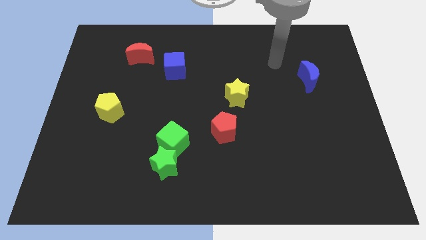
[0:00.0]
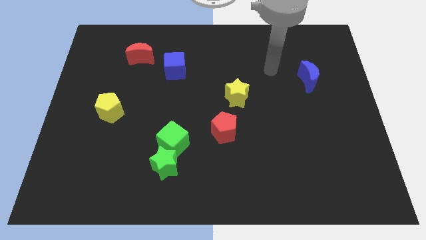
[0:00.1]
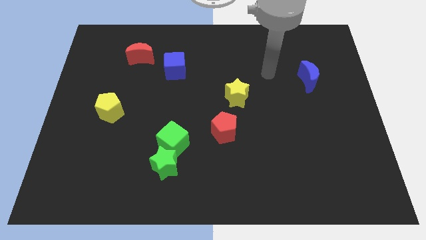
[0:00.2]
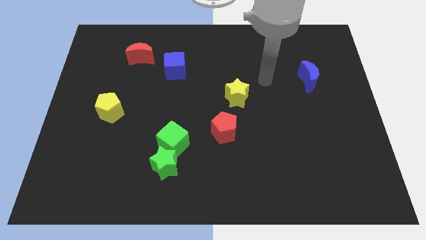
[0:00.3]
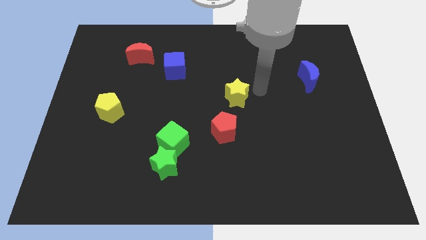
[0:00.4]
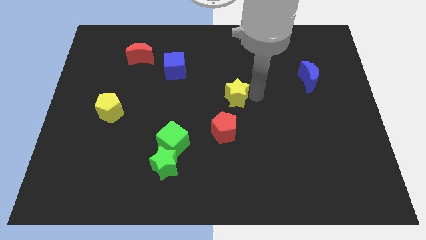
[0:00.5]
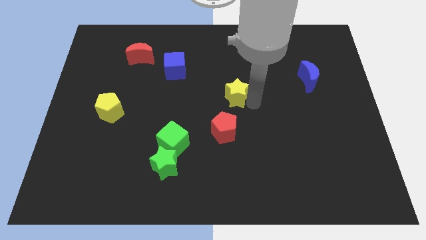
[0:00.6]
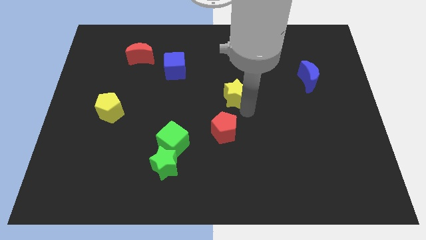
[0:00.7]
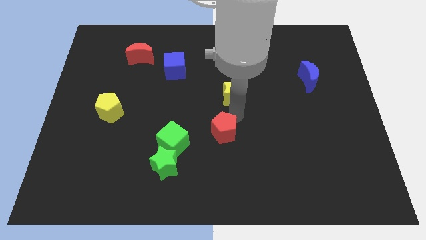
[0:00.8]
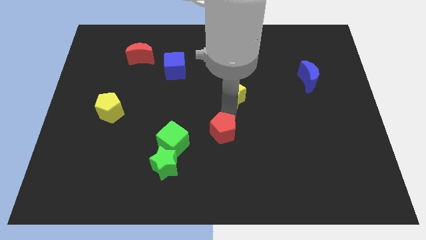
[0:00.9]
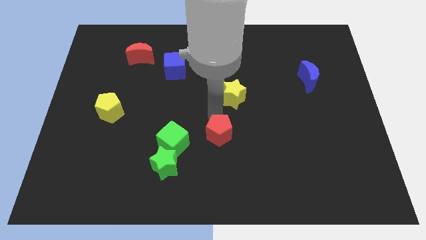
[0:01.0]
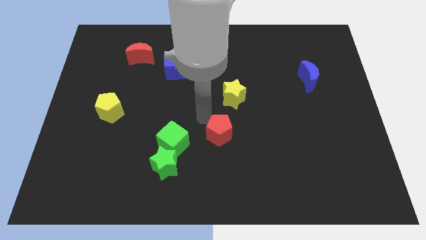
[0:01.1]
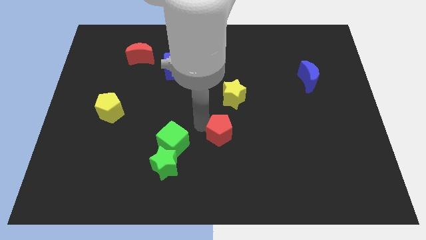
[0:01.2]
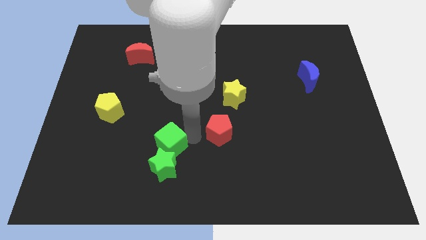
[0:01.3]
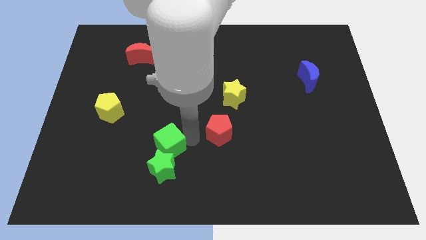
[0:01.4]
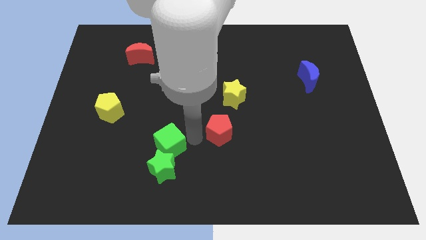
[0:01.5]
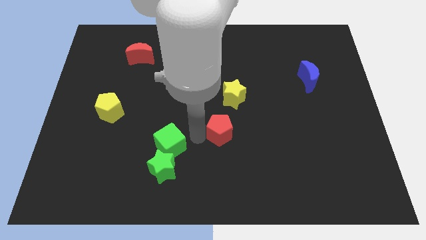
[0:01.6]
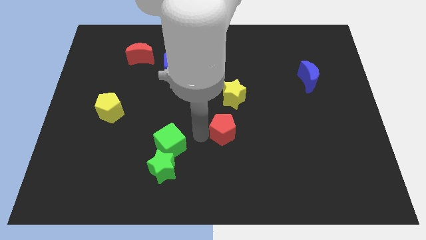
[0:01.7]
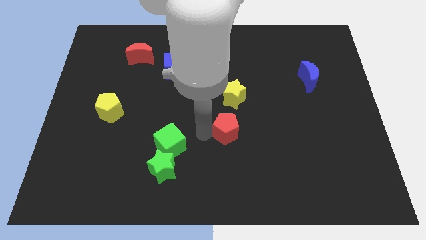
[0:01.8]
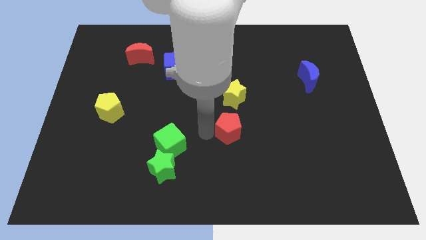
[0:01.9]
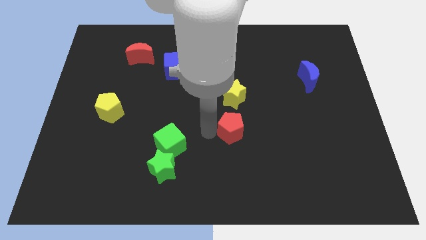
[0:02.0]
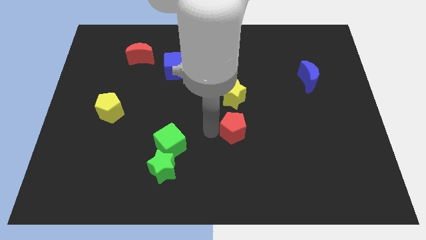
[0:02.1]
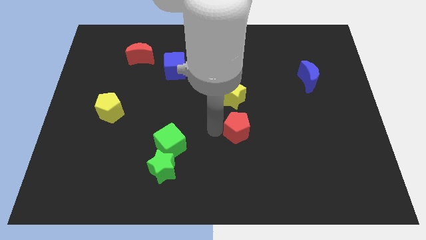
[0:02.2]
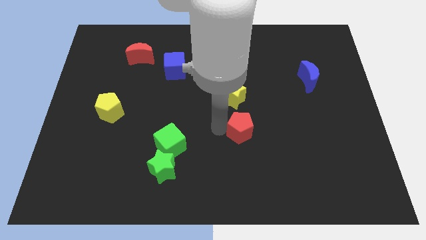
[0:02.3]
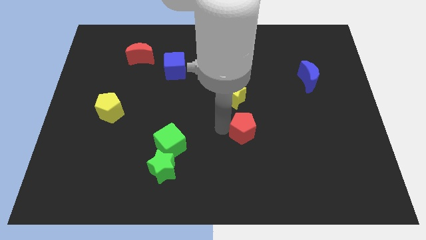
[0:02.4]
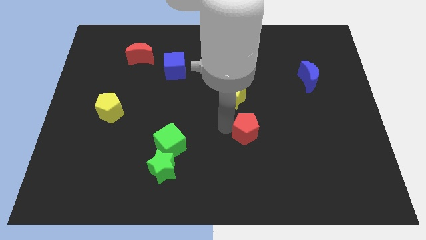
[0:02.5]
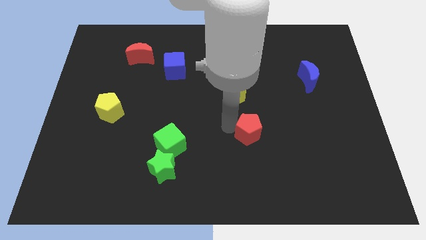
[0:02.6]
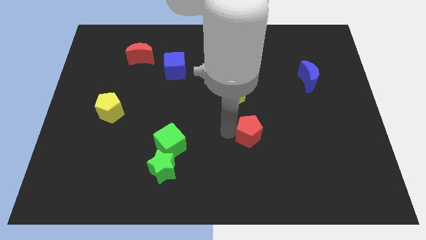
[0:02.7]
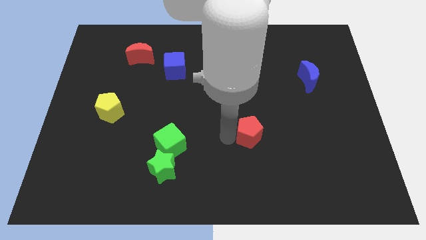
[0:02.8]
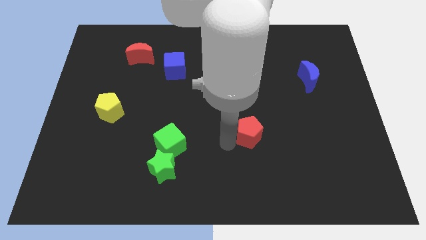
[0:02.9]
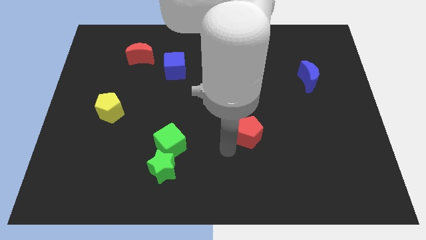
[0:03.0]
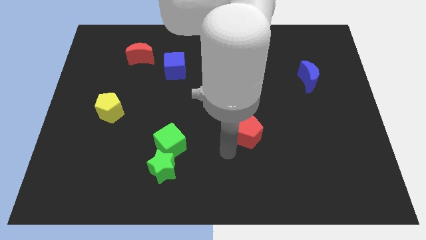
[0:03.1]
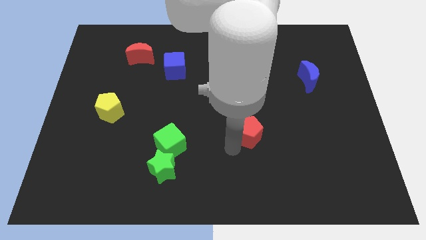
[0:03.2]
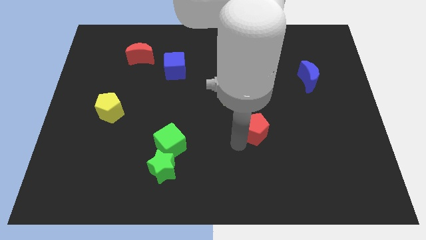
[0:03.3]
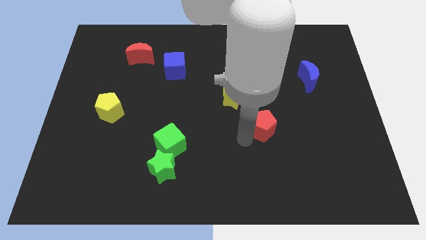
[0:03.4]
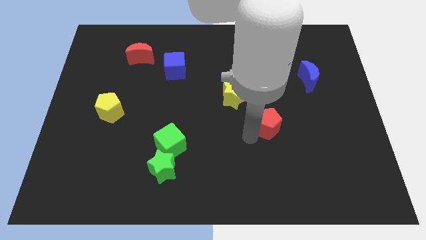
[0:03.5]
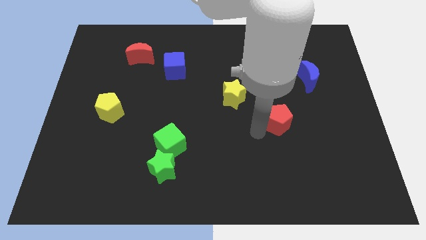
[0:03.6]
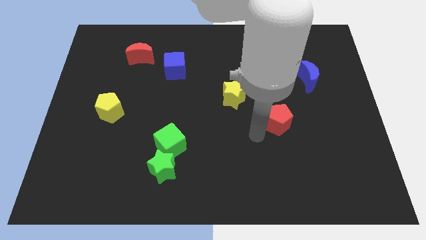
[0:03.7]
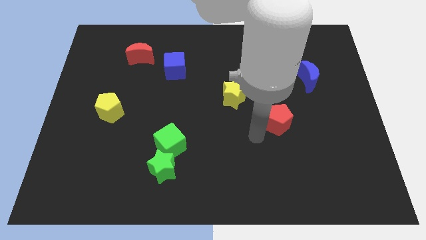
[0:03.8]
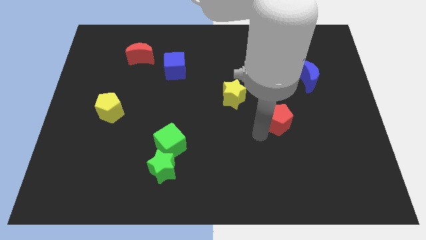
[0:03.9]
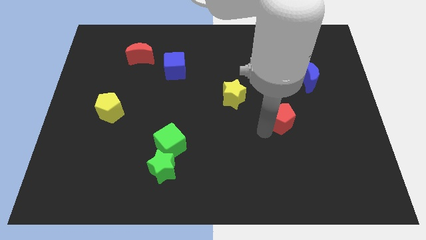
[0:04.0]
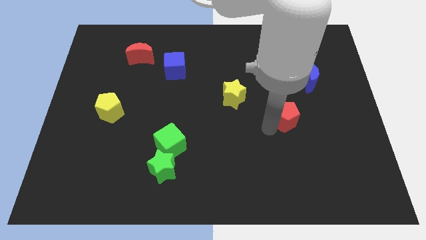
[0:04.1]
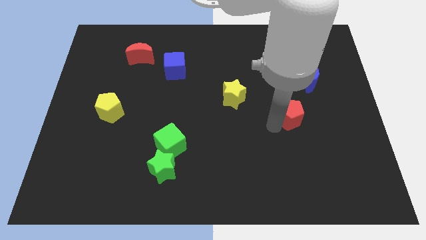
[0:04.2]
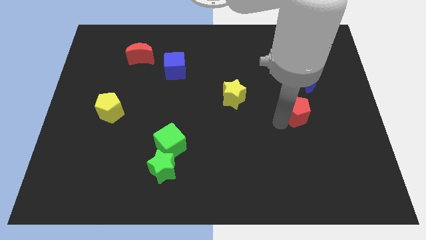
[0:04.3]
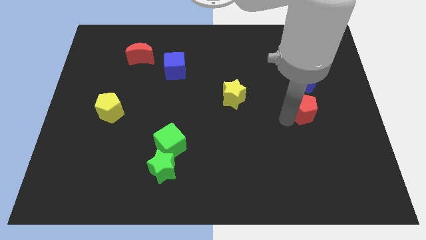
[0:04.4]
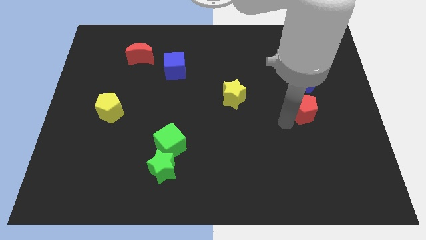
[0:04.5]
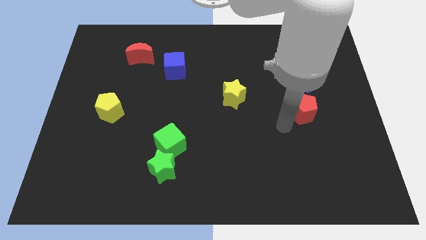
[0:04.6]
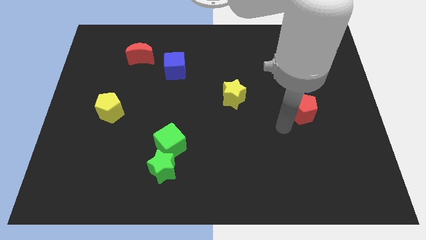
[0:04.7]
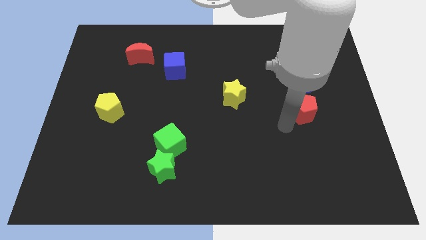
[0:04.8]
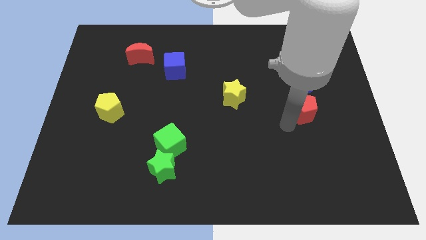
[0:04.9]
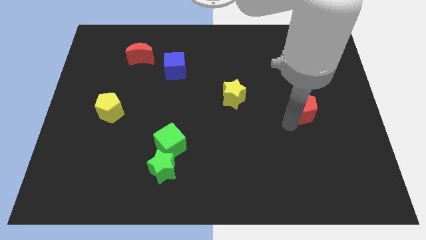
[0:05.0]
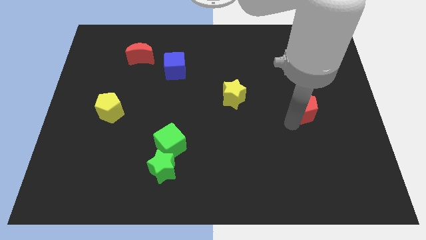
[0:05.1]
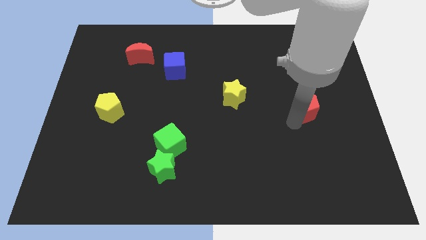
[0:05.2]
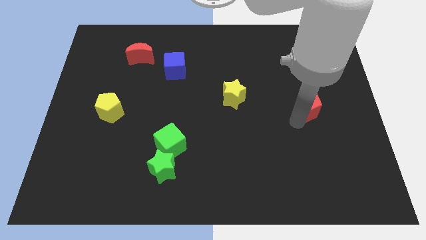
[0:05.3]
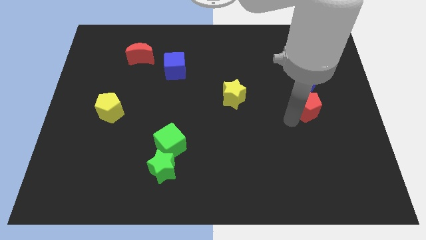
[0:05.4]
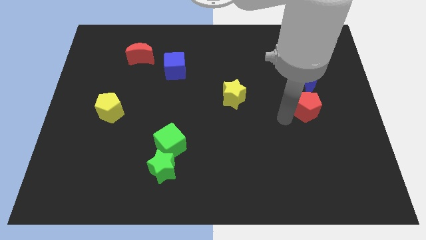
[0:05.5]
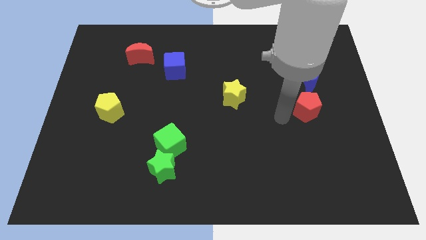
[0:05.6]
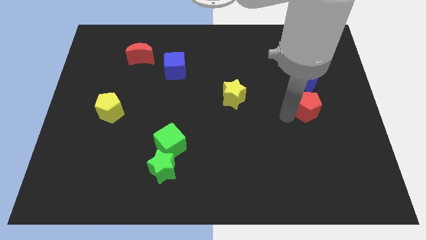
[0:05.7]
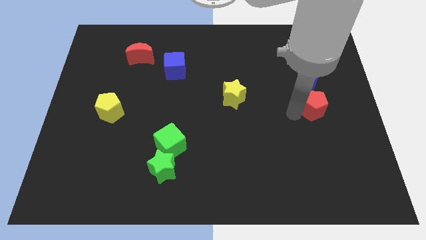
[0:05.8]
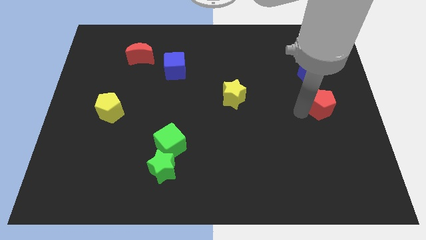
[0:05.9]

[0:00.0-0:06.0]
slide the red pentagon to the center right

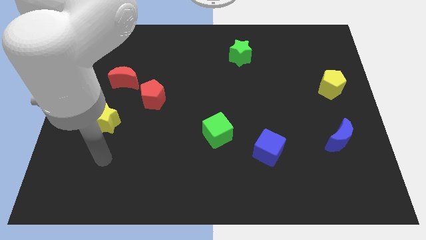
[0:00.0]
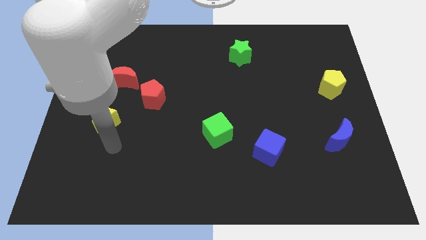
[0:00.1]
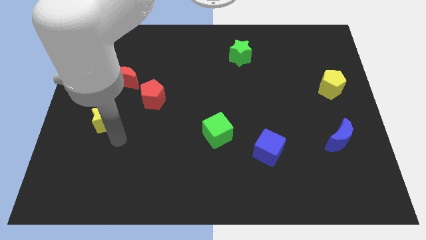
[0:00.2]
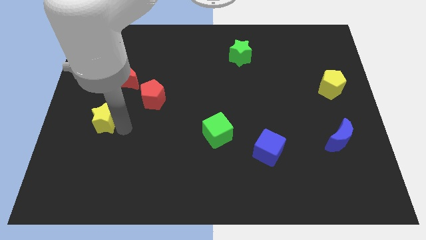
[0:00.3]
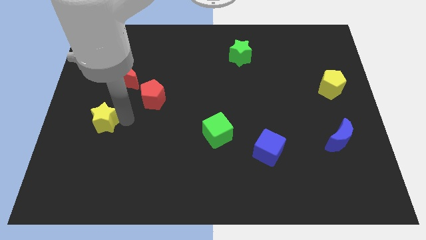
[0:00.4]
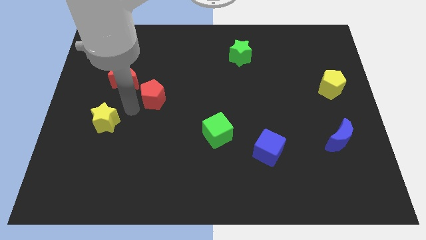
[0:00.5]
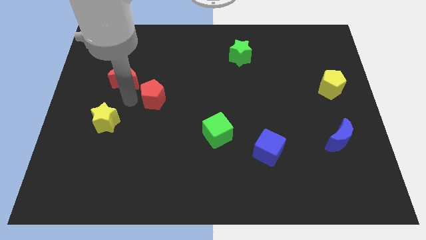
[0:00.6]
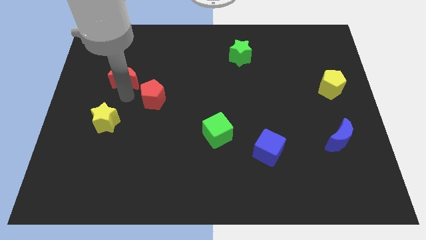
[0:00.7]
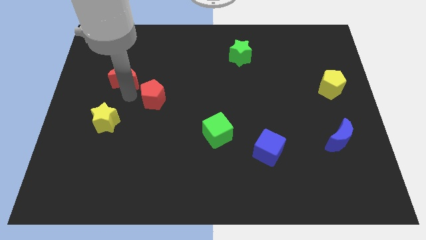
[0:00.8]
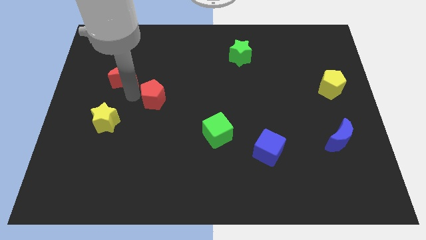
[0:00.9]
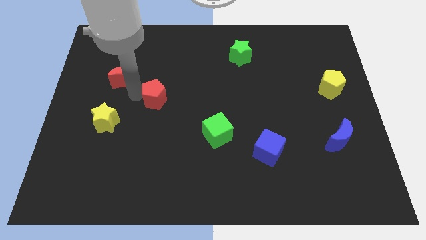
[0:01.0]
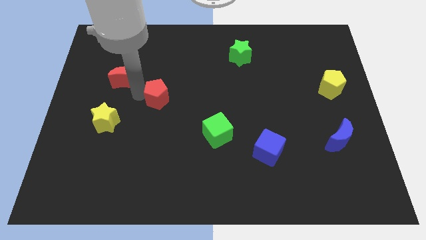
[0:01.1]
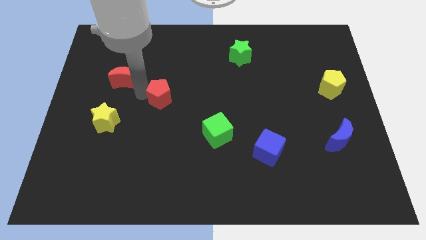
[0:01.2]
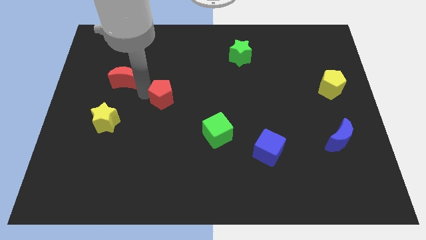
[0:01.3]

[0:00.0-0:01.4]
push the red pentagon to the middle of the board
